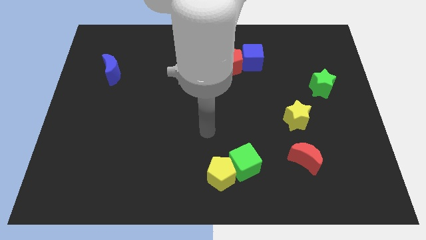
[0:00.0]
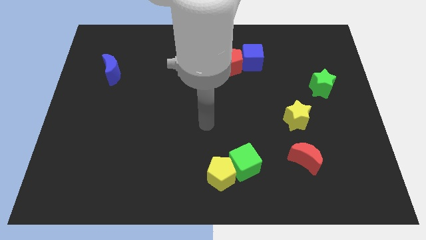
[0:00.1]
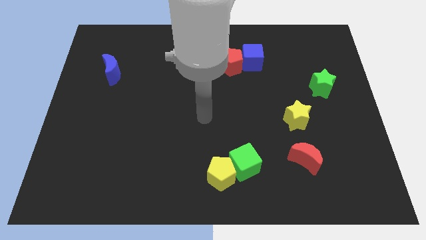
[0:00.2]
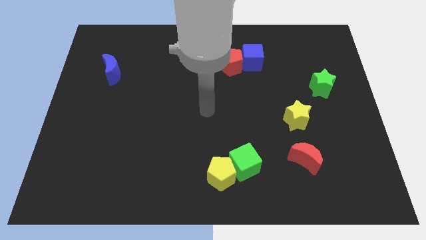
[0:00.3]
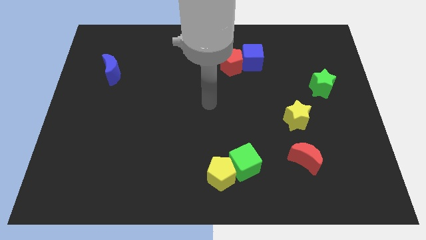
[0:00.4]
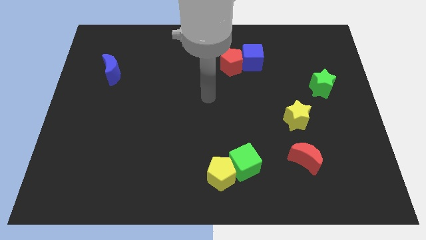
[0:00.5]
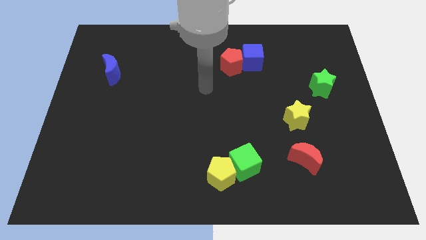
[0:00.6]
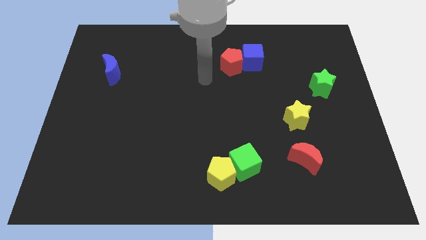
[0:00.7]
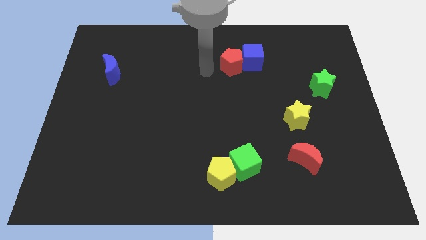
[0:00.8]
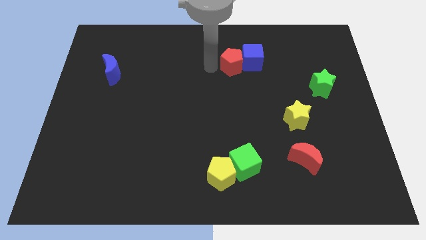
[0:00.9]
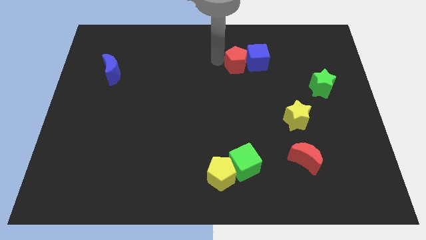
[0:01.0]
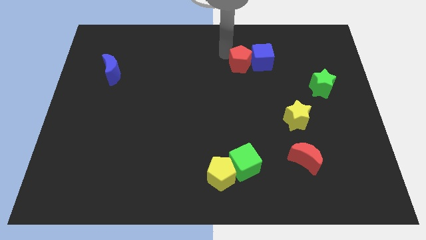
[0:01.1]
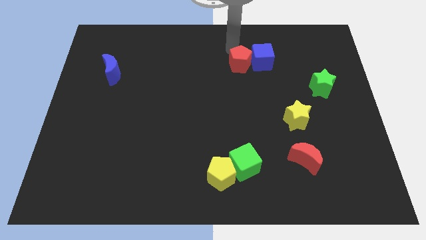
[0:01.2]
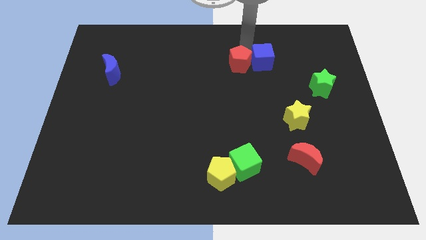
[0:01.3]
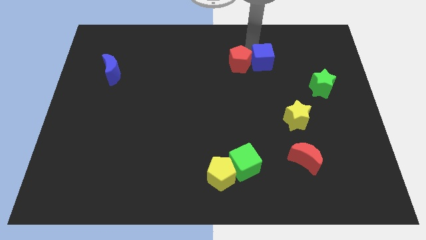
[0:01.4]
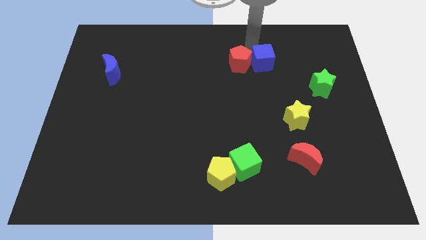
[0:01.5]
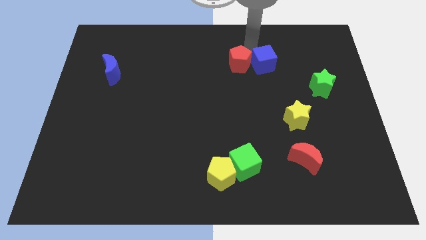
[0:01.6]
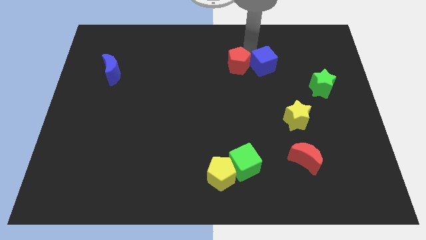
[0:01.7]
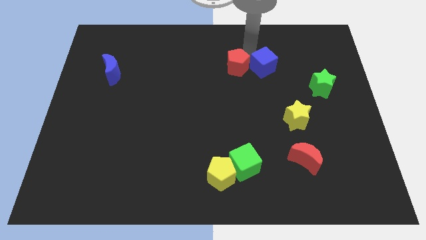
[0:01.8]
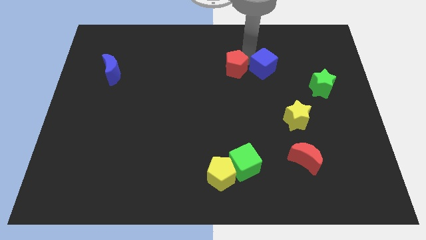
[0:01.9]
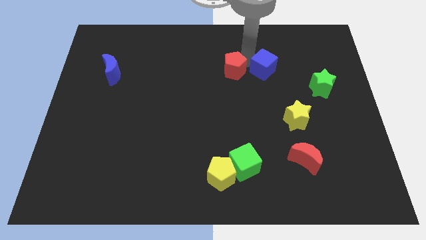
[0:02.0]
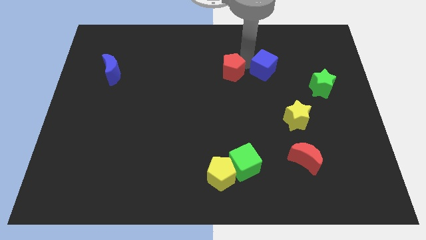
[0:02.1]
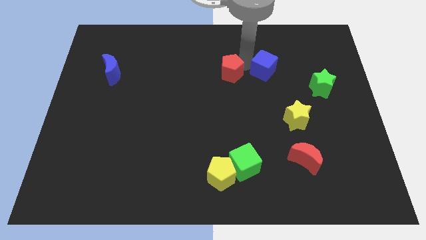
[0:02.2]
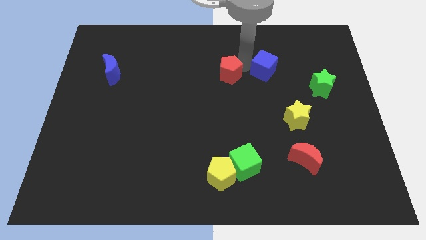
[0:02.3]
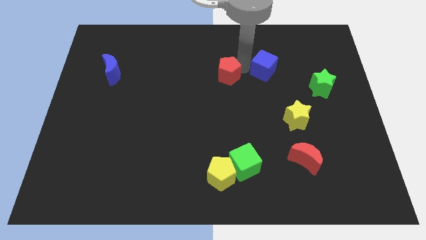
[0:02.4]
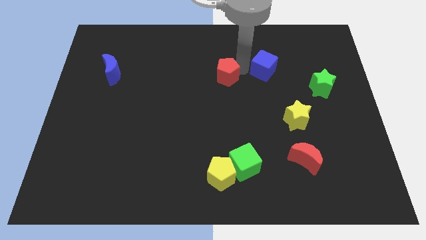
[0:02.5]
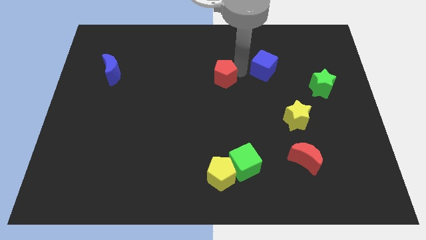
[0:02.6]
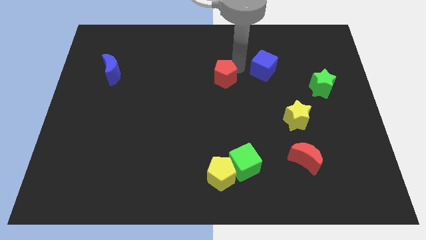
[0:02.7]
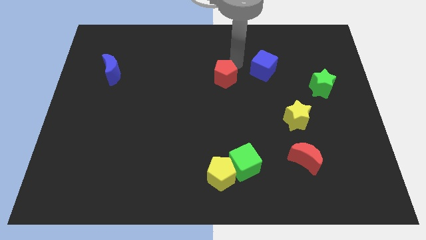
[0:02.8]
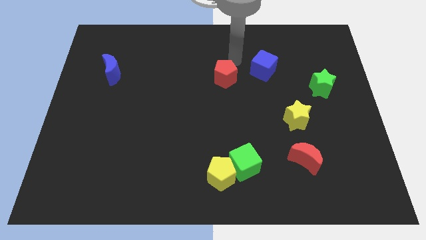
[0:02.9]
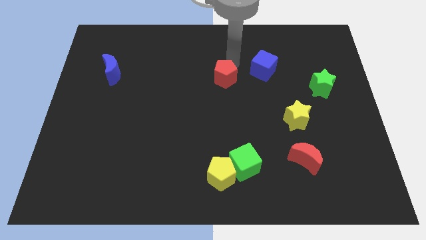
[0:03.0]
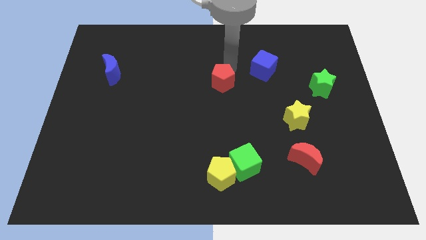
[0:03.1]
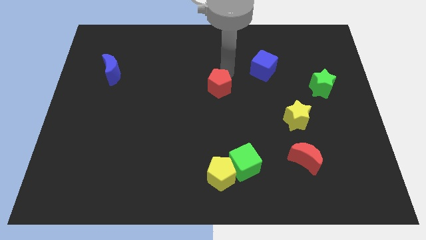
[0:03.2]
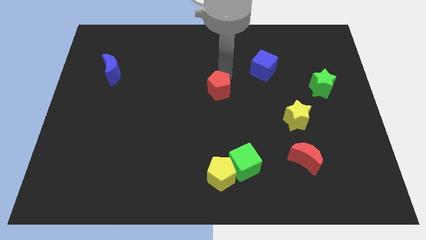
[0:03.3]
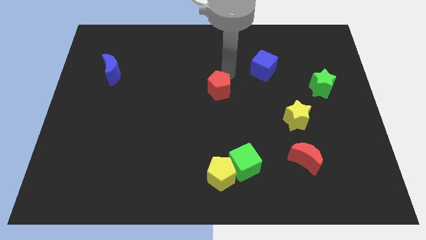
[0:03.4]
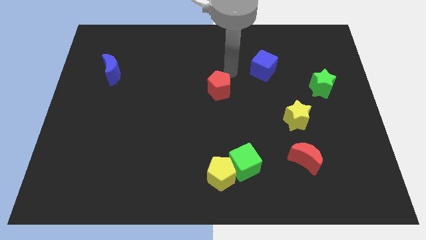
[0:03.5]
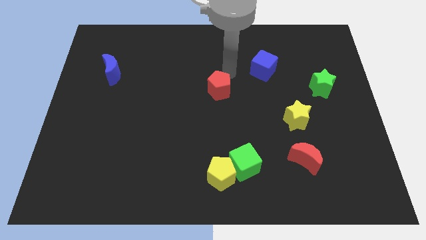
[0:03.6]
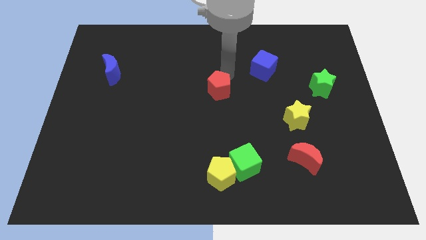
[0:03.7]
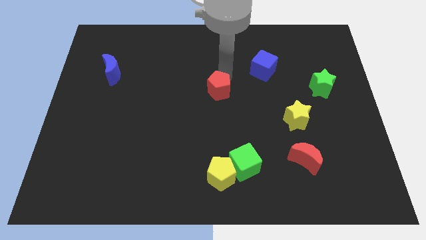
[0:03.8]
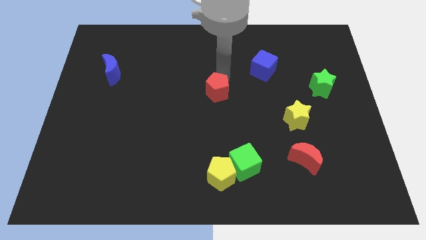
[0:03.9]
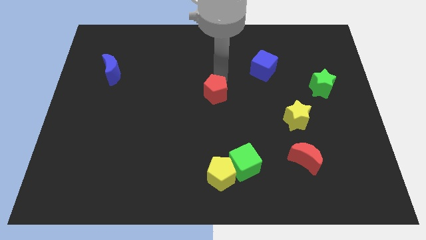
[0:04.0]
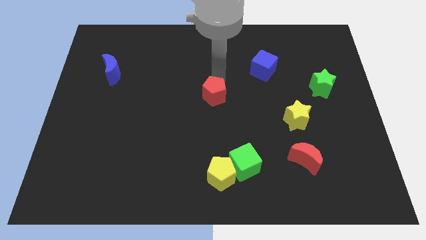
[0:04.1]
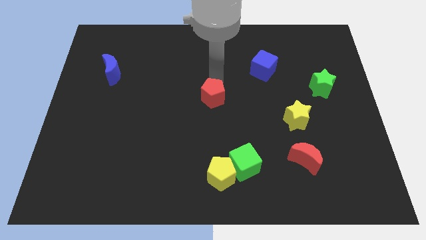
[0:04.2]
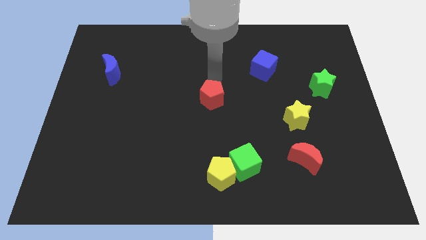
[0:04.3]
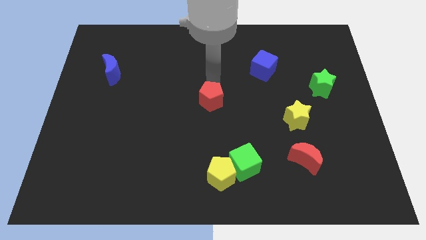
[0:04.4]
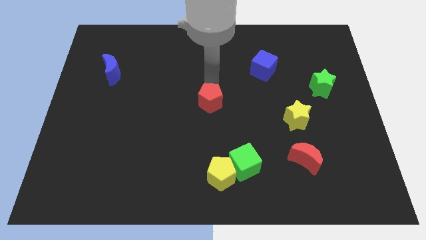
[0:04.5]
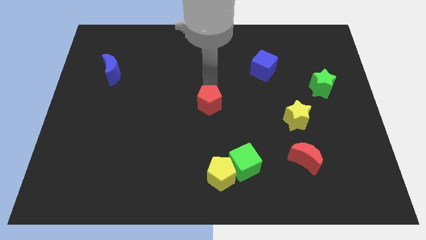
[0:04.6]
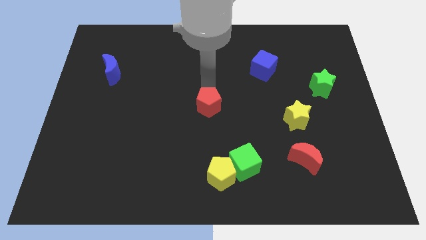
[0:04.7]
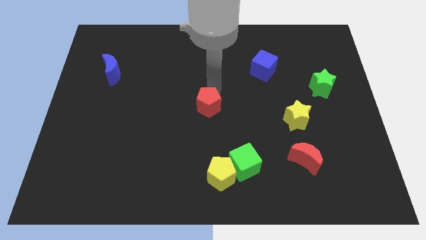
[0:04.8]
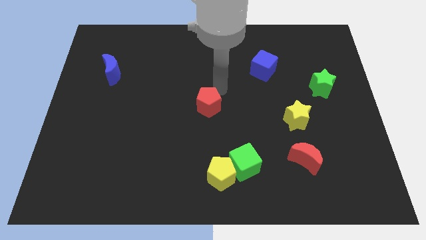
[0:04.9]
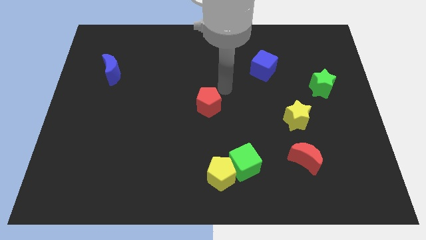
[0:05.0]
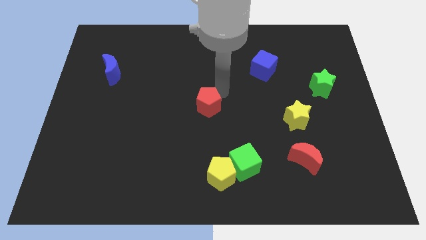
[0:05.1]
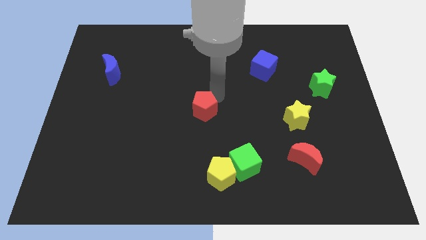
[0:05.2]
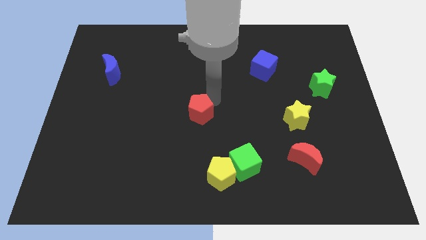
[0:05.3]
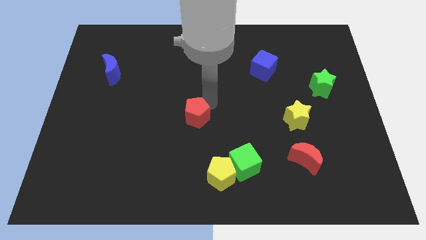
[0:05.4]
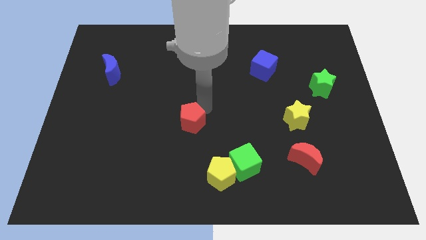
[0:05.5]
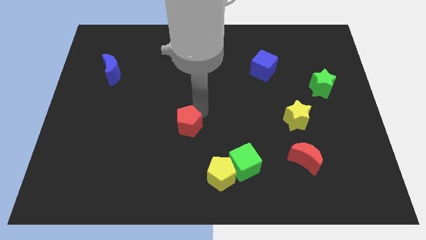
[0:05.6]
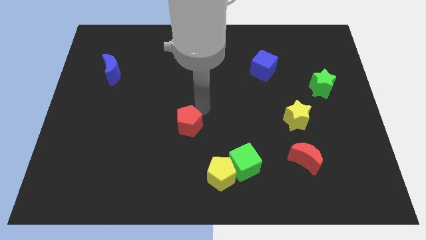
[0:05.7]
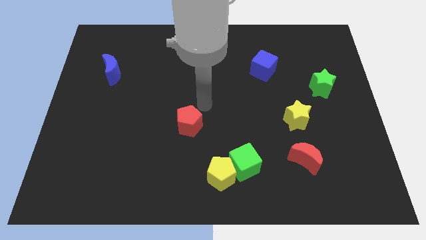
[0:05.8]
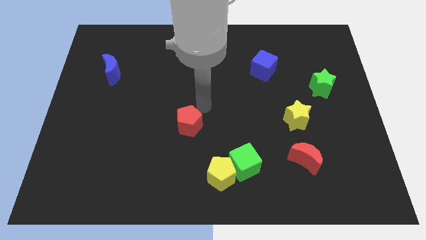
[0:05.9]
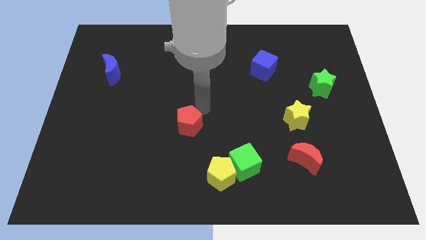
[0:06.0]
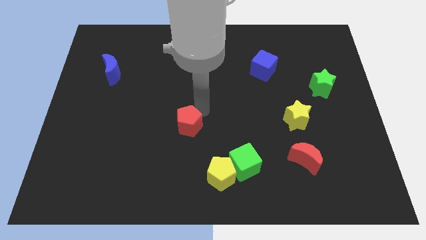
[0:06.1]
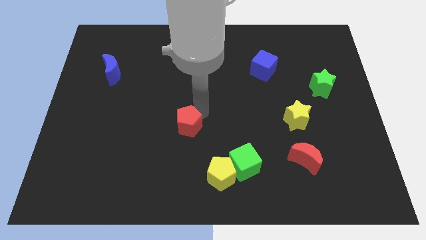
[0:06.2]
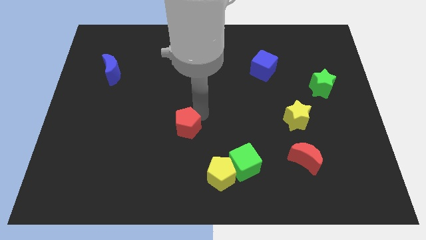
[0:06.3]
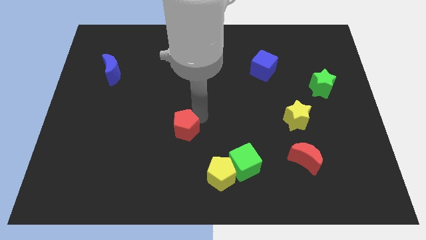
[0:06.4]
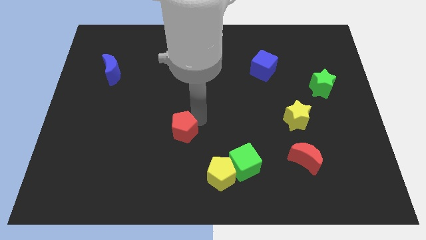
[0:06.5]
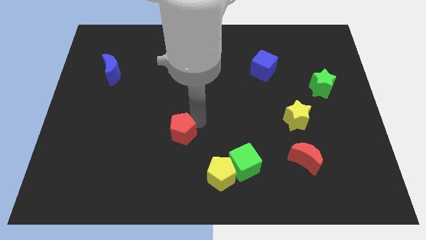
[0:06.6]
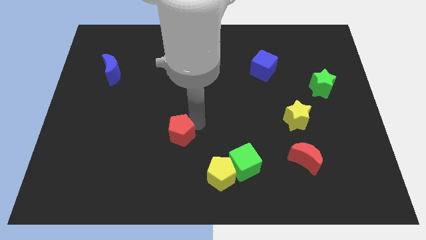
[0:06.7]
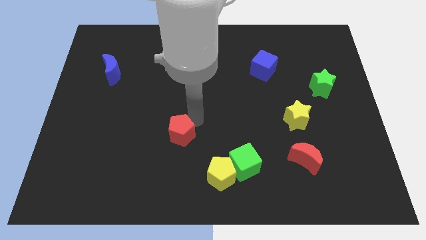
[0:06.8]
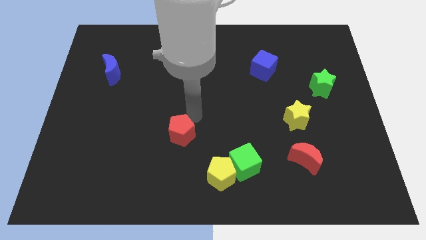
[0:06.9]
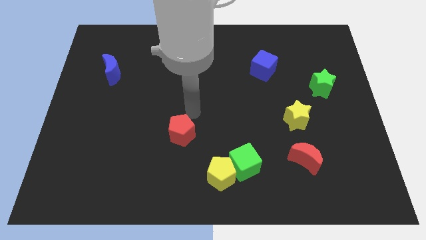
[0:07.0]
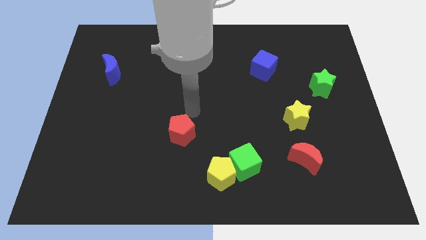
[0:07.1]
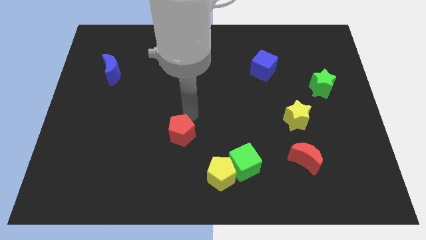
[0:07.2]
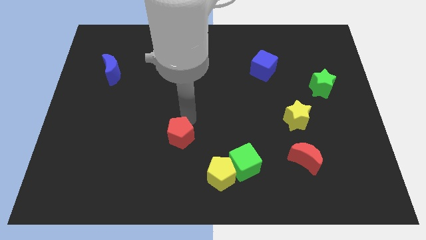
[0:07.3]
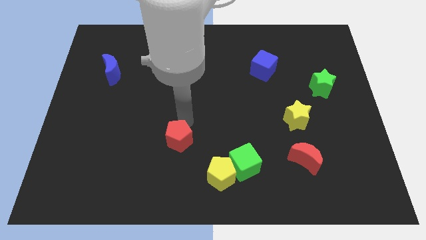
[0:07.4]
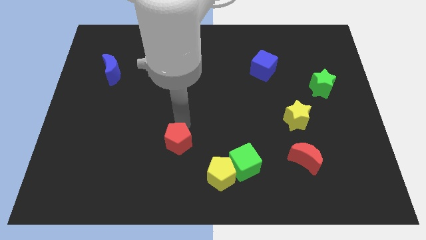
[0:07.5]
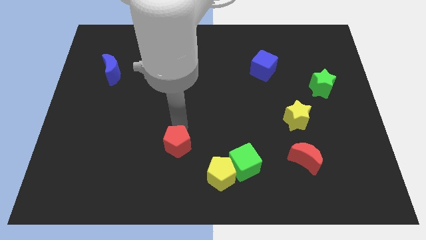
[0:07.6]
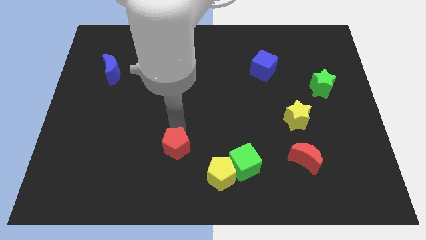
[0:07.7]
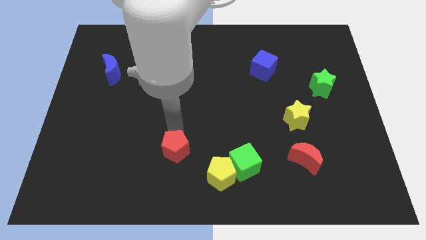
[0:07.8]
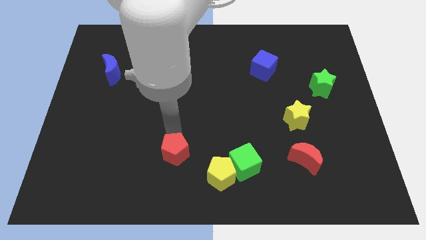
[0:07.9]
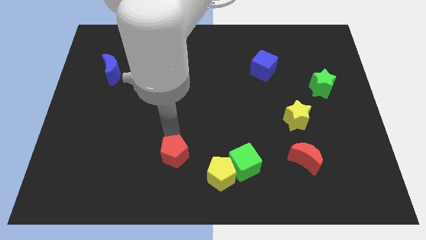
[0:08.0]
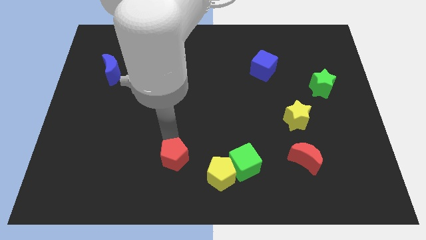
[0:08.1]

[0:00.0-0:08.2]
slide the red pentagon just left of the yellow pentagon
